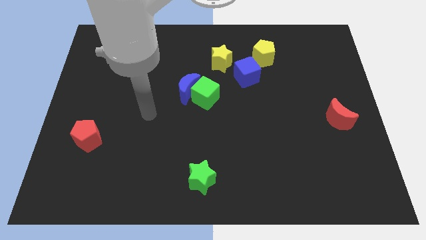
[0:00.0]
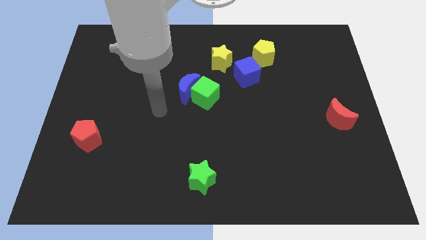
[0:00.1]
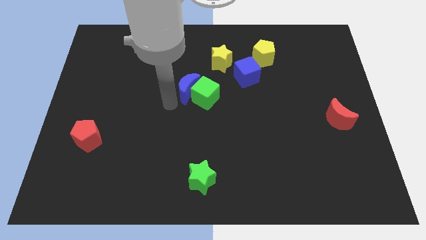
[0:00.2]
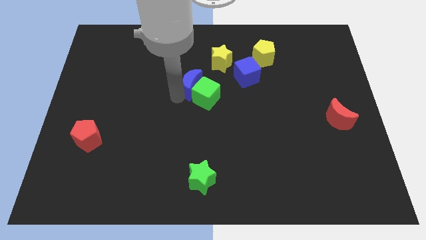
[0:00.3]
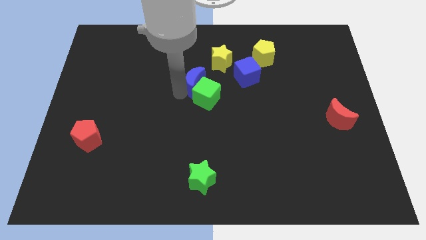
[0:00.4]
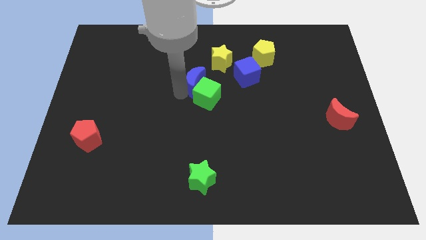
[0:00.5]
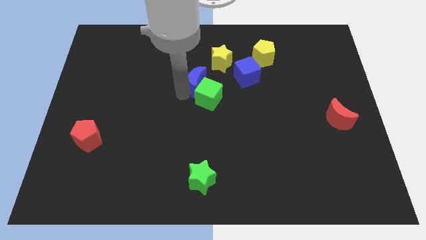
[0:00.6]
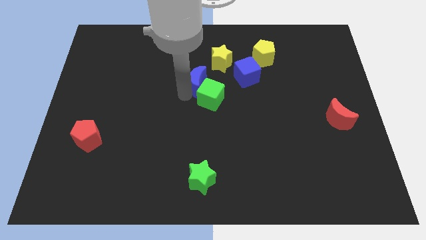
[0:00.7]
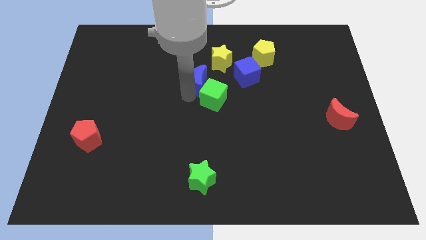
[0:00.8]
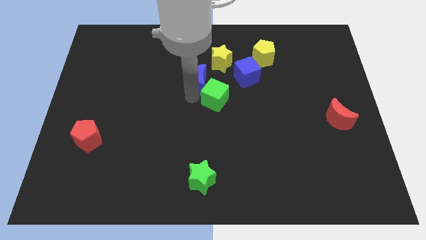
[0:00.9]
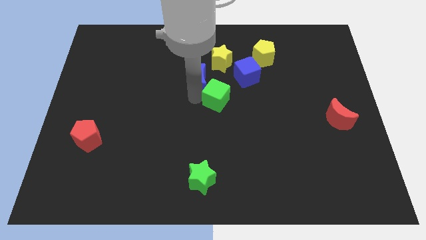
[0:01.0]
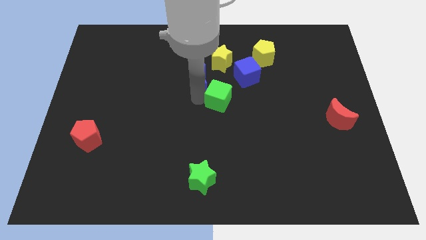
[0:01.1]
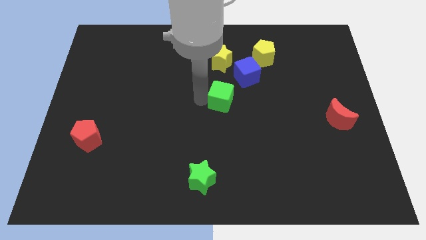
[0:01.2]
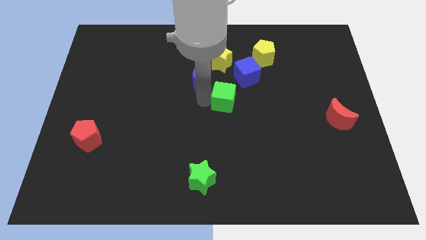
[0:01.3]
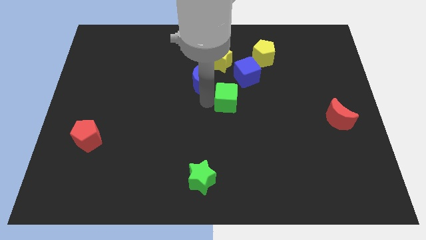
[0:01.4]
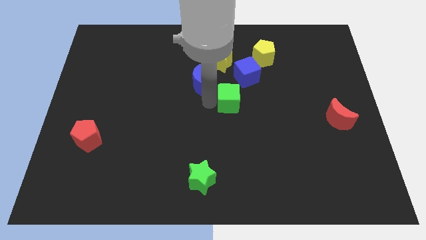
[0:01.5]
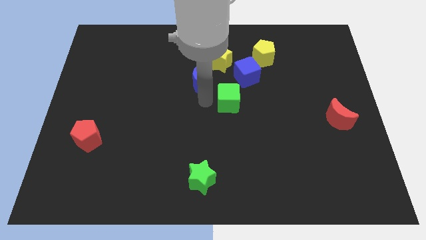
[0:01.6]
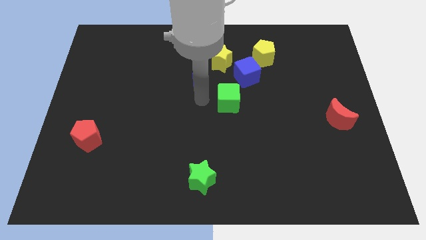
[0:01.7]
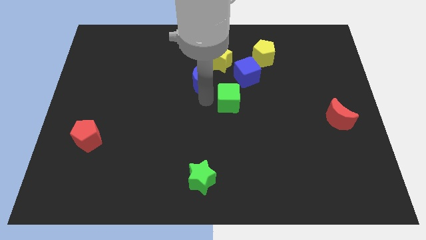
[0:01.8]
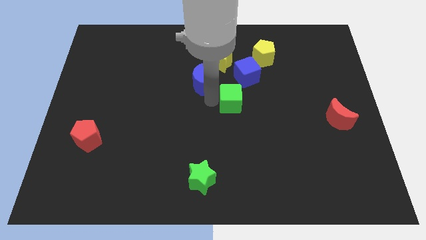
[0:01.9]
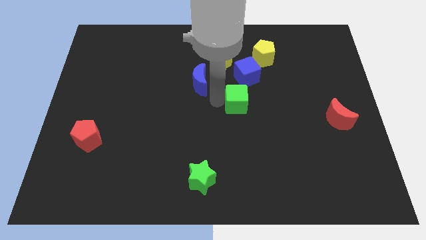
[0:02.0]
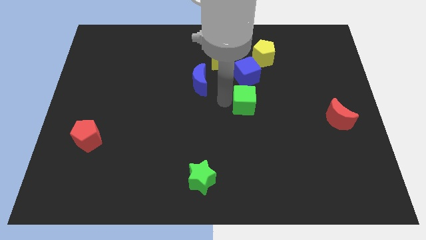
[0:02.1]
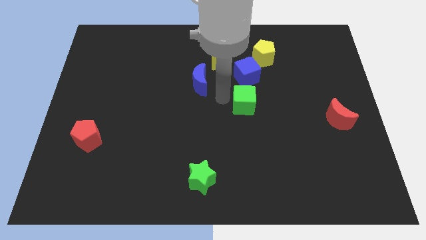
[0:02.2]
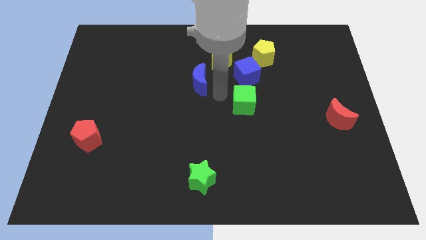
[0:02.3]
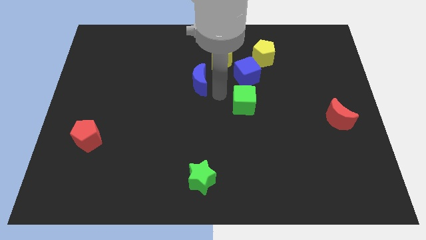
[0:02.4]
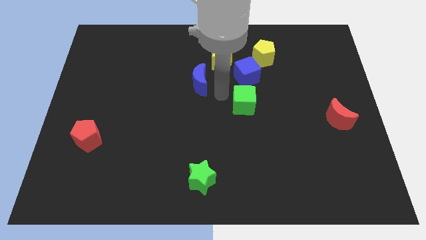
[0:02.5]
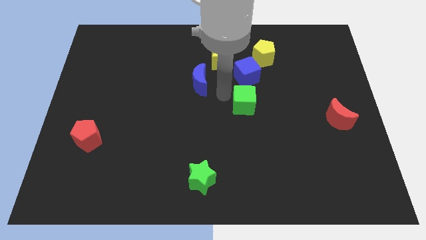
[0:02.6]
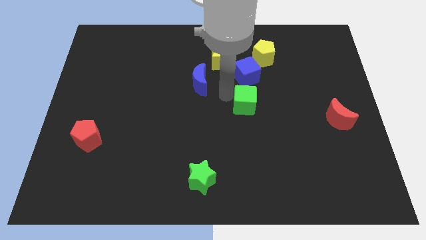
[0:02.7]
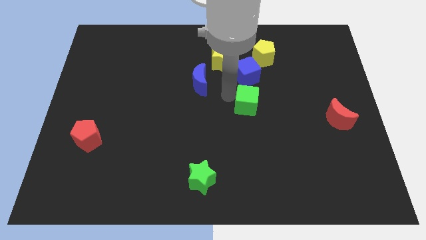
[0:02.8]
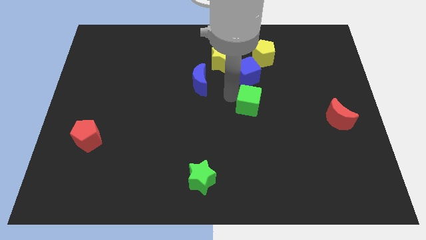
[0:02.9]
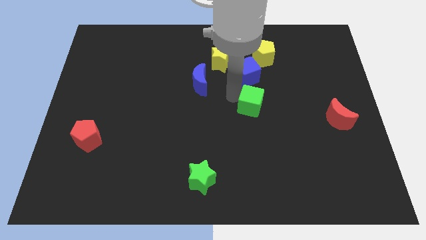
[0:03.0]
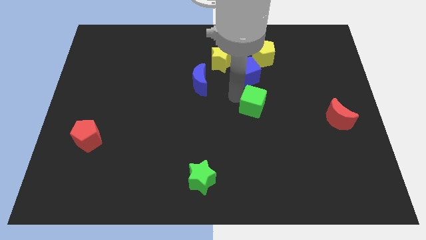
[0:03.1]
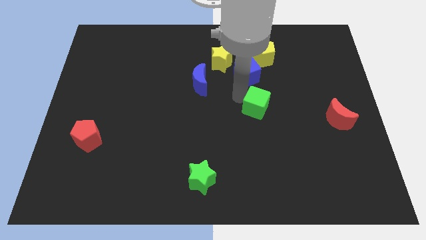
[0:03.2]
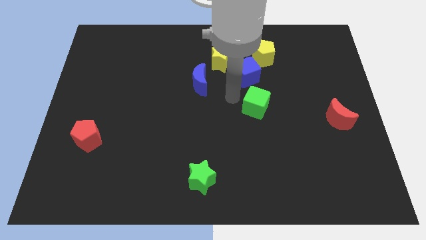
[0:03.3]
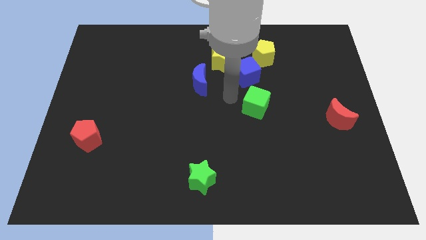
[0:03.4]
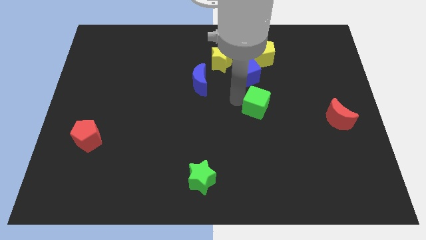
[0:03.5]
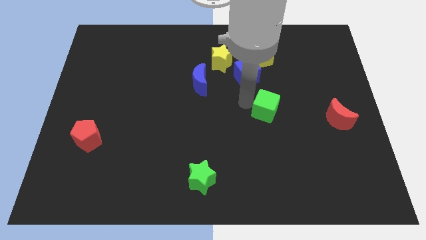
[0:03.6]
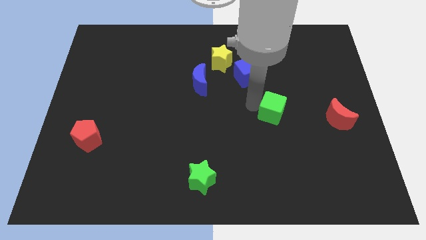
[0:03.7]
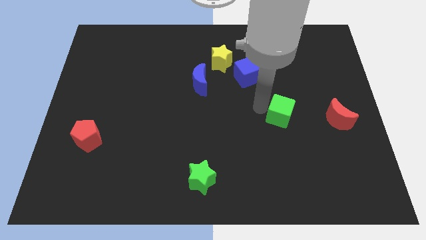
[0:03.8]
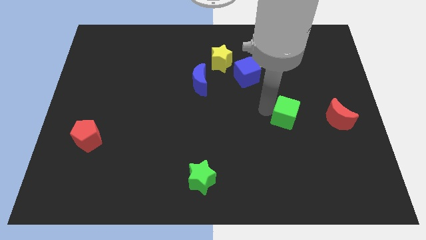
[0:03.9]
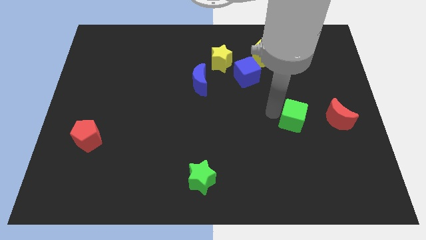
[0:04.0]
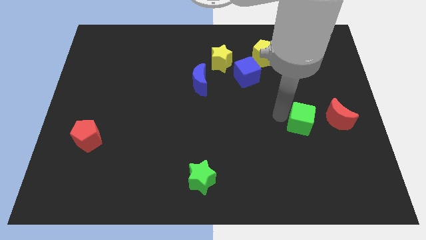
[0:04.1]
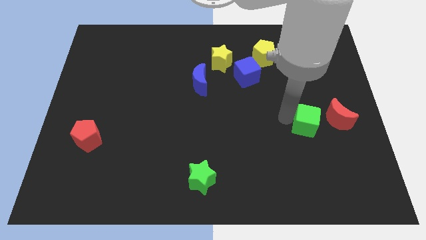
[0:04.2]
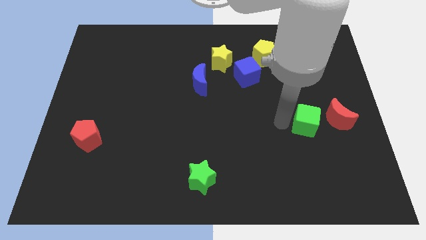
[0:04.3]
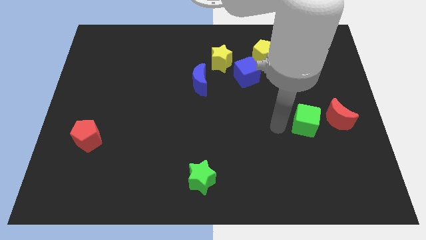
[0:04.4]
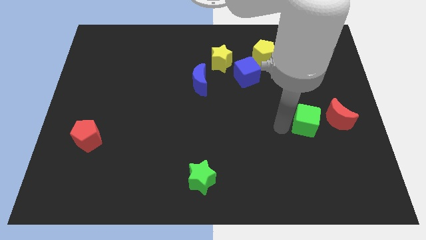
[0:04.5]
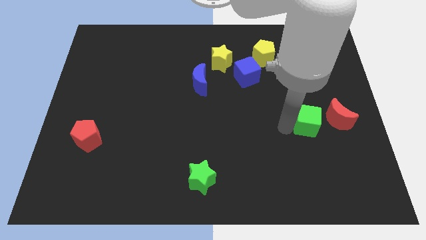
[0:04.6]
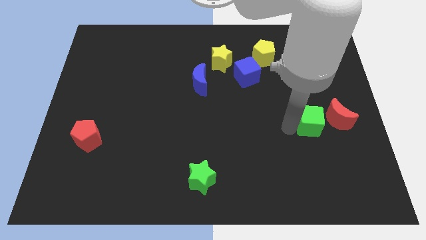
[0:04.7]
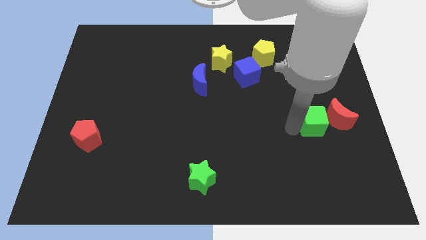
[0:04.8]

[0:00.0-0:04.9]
push the green cube next to the red moon

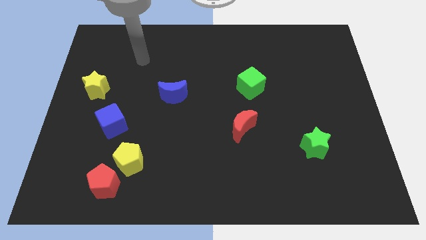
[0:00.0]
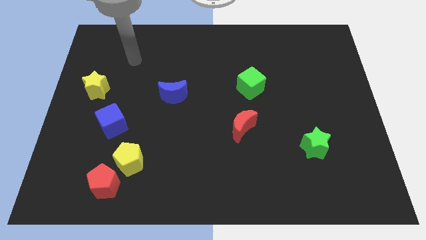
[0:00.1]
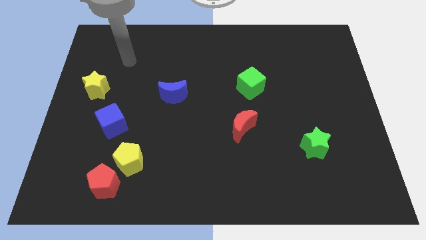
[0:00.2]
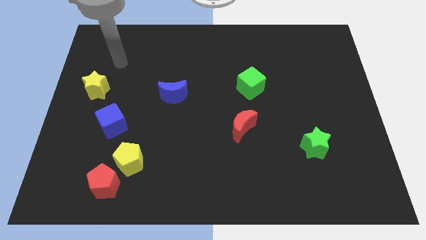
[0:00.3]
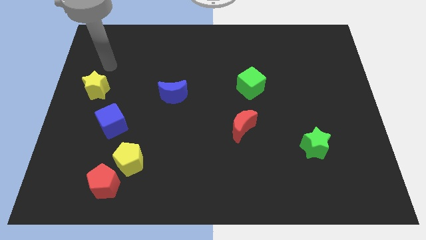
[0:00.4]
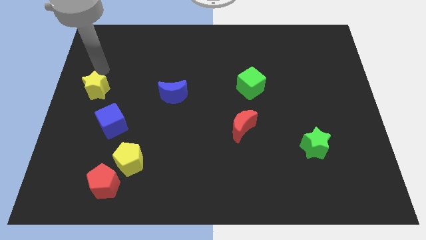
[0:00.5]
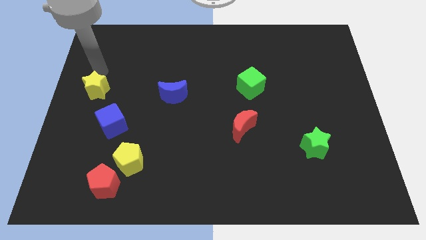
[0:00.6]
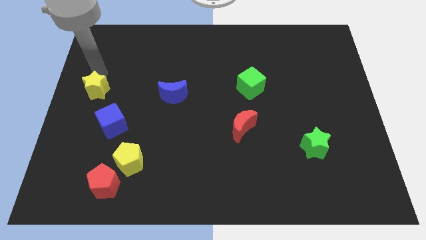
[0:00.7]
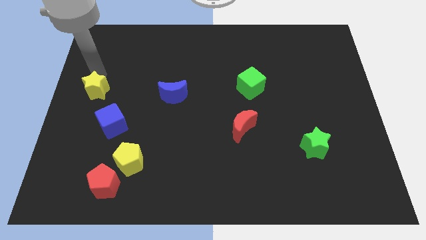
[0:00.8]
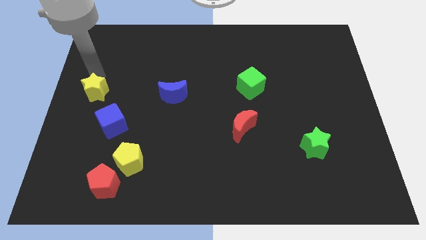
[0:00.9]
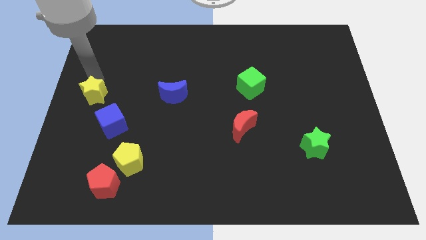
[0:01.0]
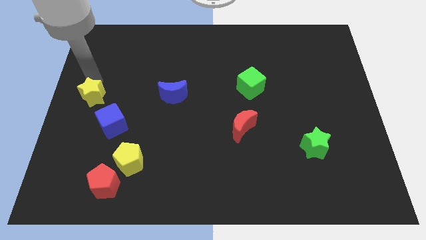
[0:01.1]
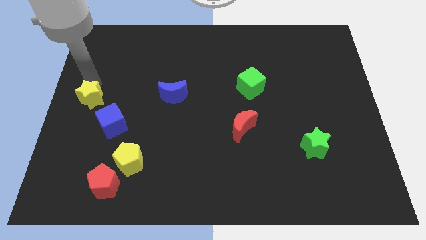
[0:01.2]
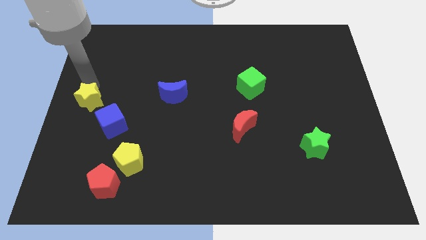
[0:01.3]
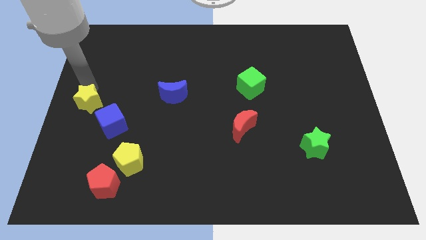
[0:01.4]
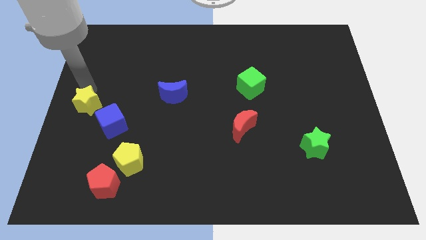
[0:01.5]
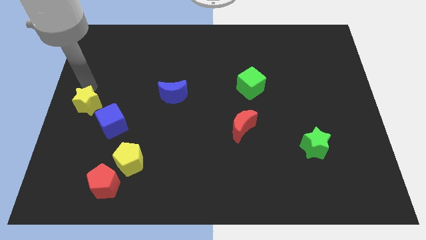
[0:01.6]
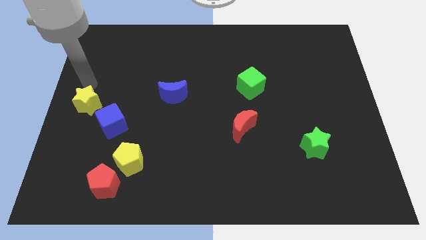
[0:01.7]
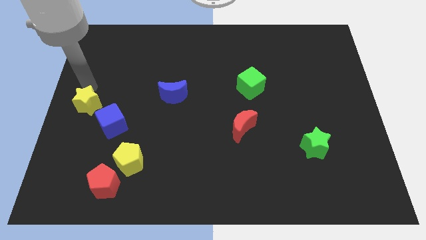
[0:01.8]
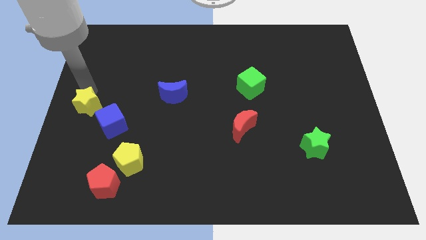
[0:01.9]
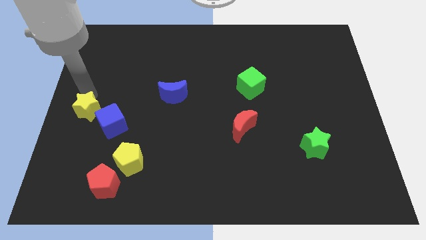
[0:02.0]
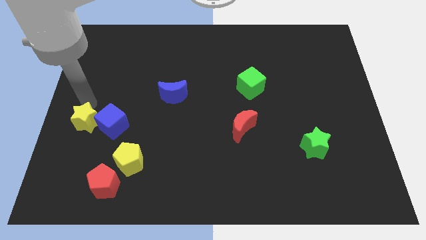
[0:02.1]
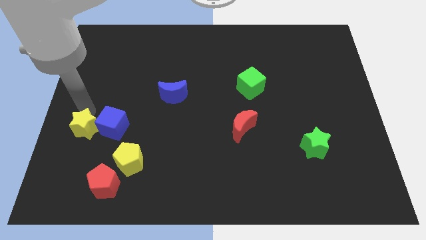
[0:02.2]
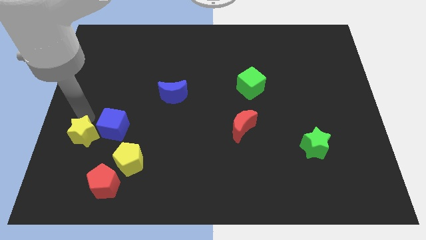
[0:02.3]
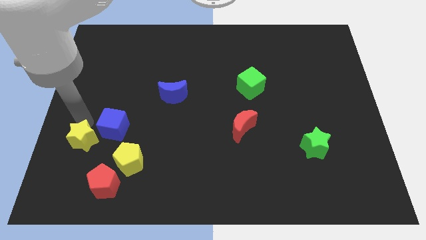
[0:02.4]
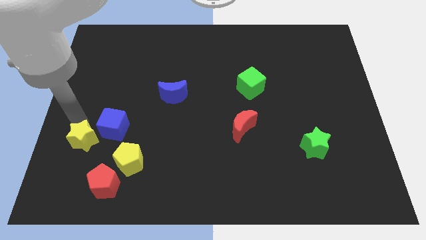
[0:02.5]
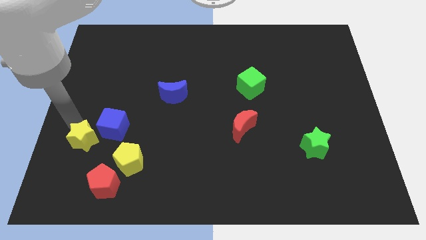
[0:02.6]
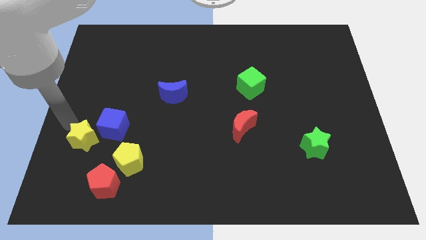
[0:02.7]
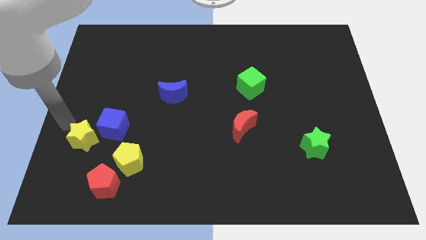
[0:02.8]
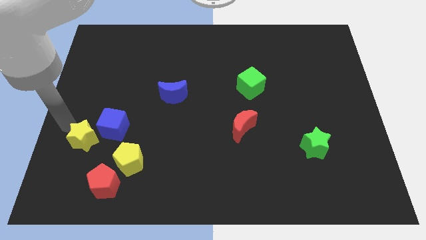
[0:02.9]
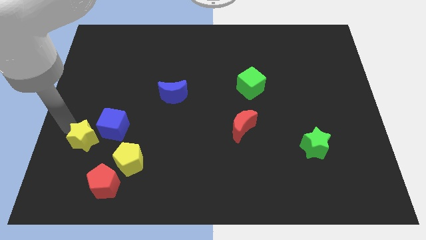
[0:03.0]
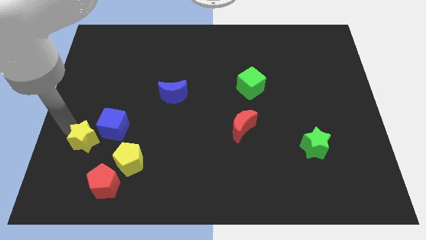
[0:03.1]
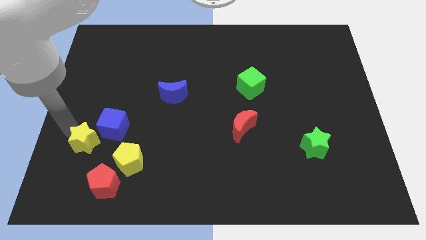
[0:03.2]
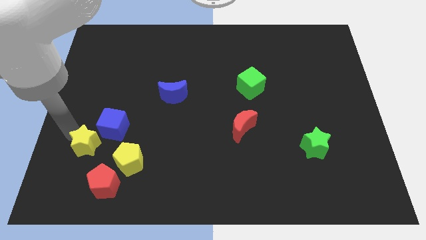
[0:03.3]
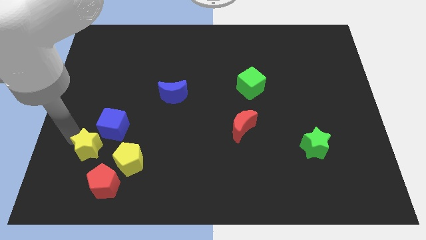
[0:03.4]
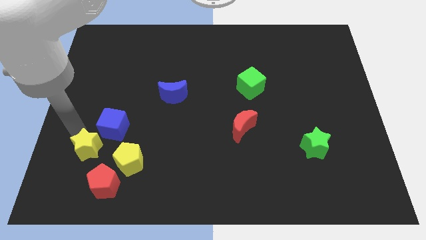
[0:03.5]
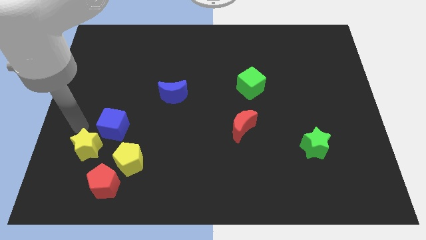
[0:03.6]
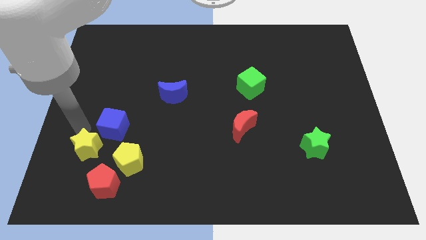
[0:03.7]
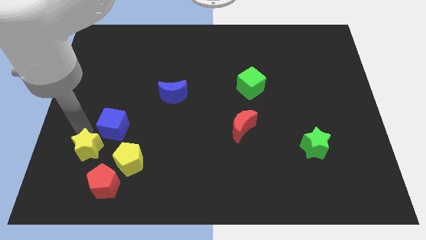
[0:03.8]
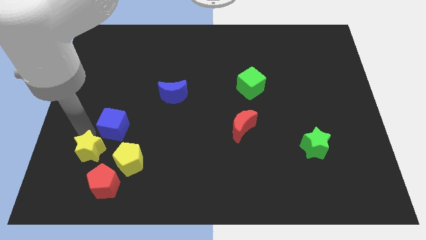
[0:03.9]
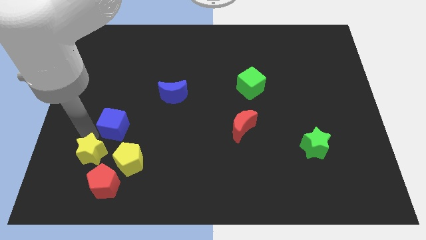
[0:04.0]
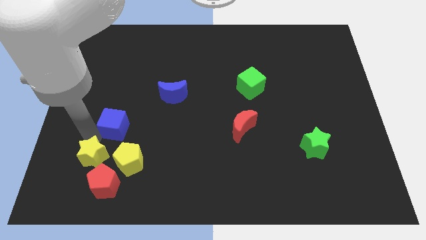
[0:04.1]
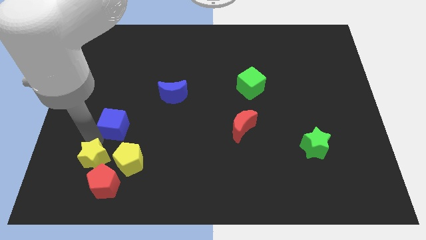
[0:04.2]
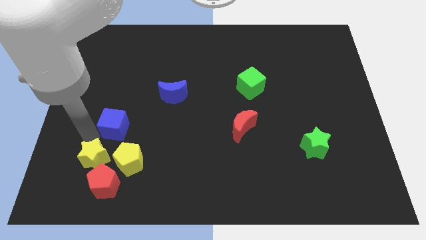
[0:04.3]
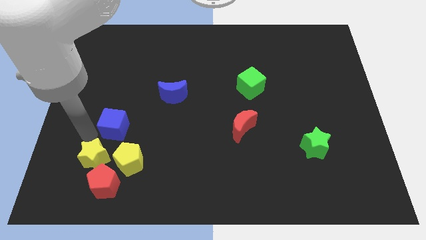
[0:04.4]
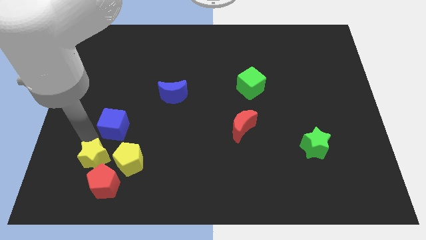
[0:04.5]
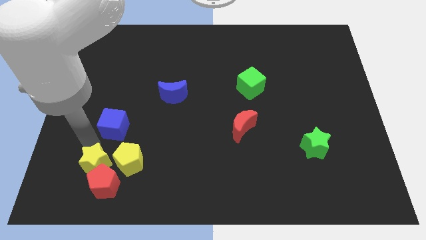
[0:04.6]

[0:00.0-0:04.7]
move the yellow star next to the red pentagon
